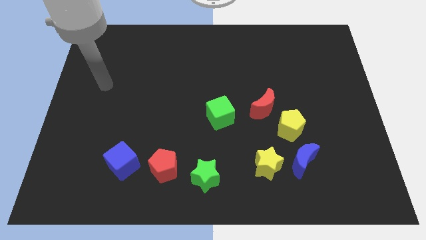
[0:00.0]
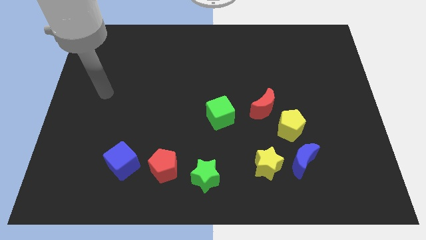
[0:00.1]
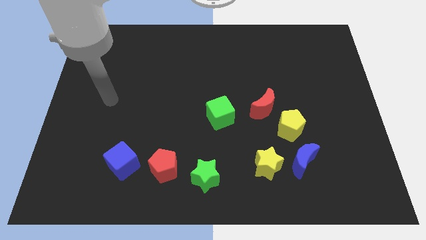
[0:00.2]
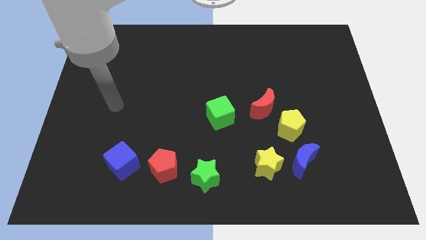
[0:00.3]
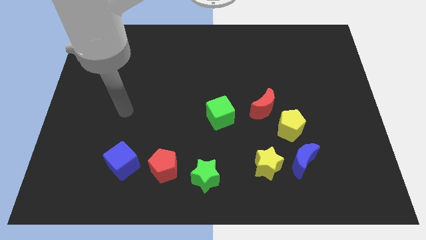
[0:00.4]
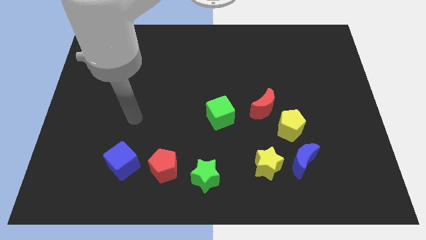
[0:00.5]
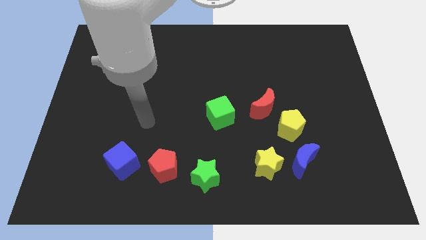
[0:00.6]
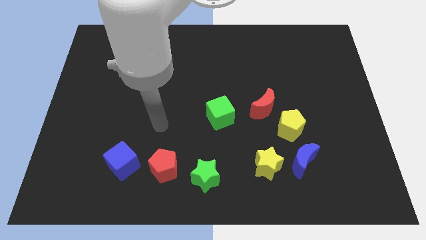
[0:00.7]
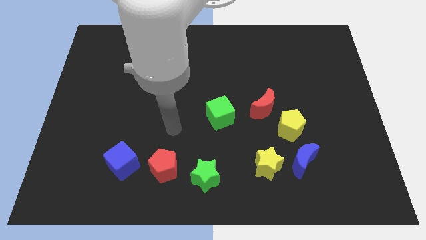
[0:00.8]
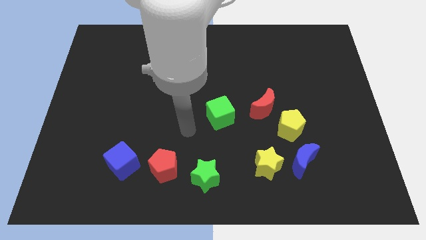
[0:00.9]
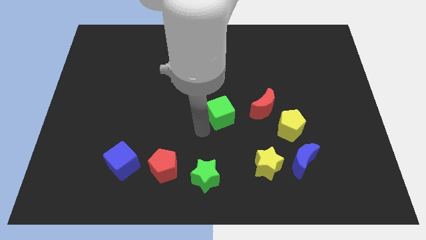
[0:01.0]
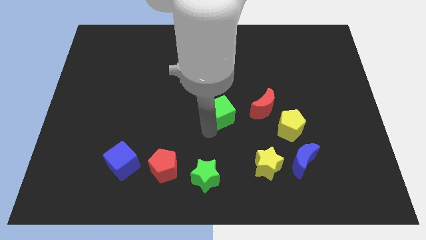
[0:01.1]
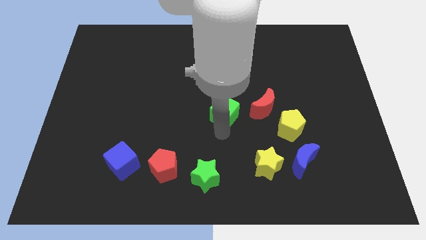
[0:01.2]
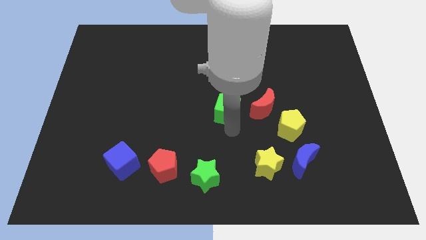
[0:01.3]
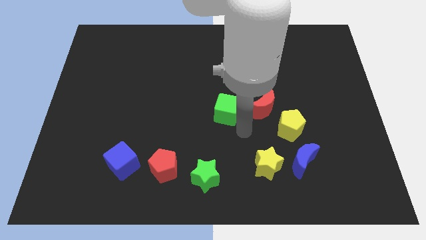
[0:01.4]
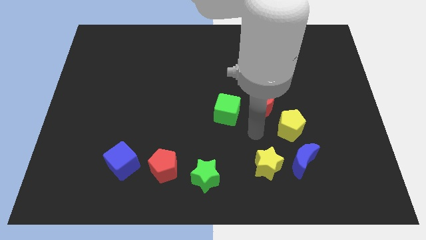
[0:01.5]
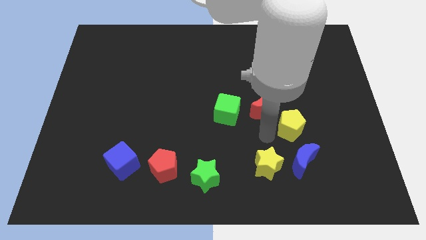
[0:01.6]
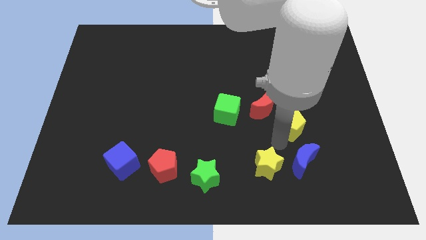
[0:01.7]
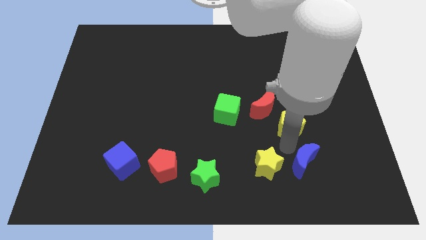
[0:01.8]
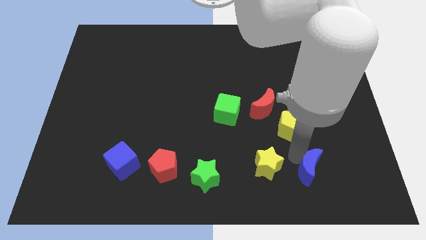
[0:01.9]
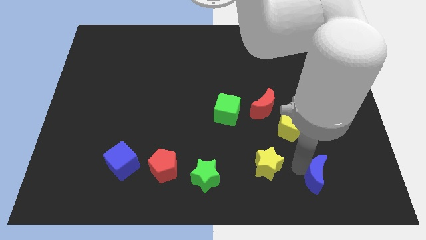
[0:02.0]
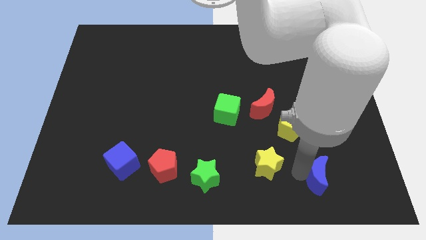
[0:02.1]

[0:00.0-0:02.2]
separate the yellow star from the blue moon

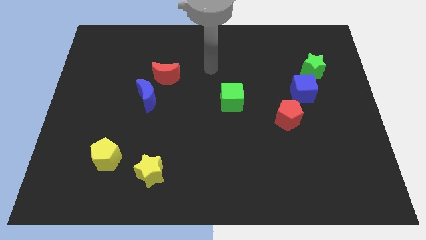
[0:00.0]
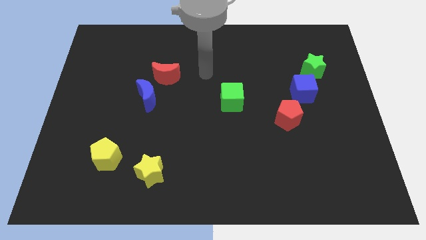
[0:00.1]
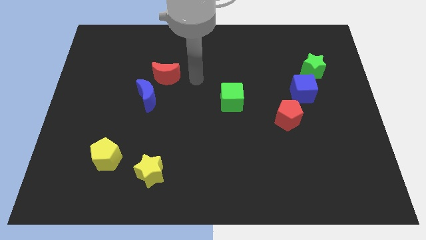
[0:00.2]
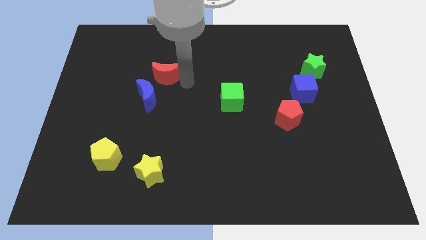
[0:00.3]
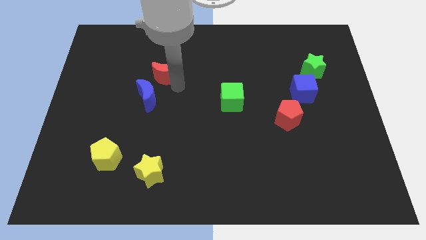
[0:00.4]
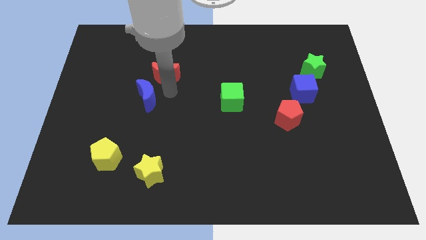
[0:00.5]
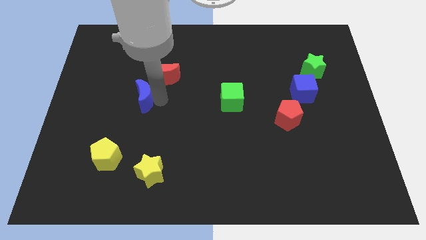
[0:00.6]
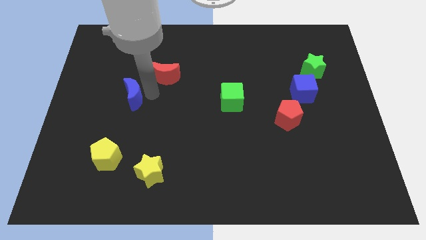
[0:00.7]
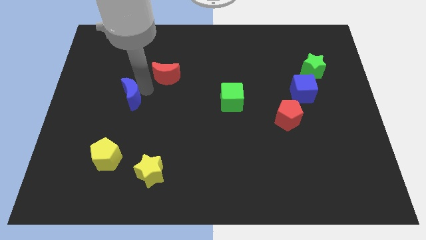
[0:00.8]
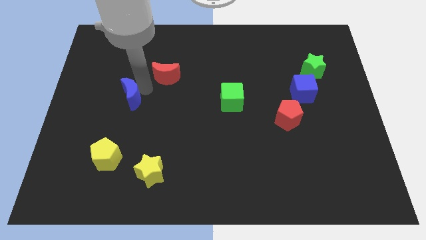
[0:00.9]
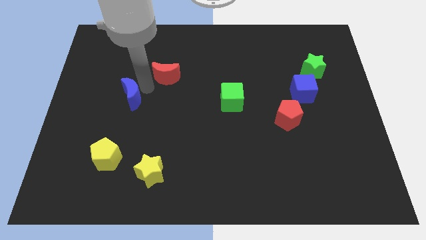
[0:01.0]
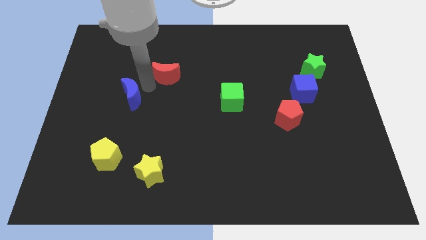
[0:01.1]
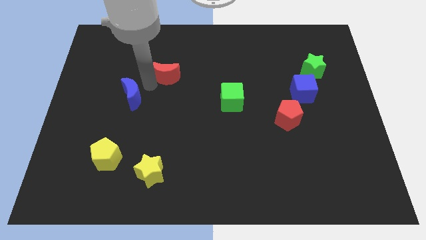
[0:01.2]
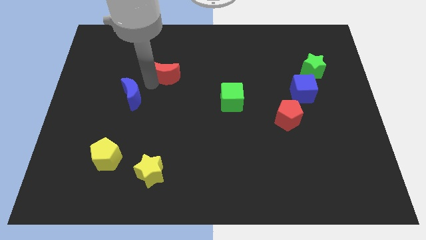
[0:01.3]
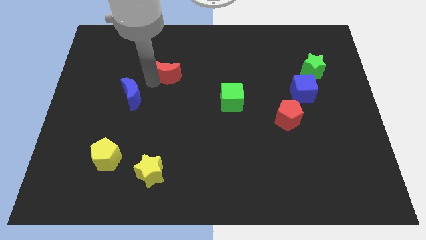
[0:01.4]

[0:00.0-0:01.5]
pull the red moon apart from the blue moon

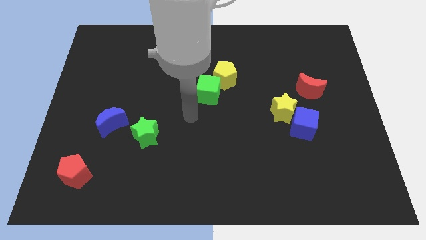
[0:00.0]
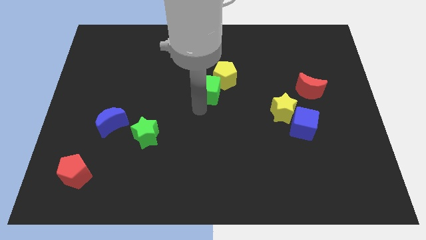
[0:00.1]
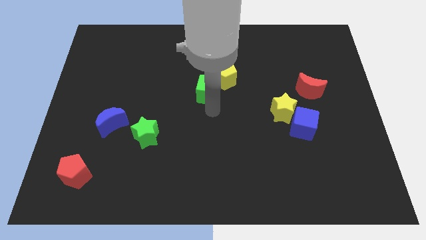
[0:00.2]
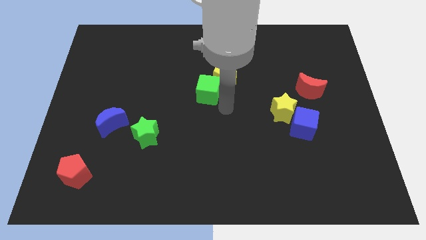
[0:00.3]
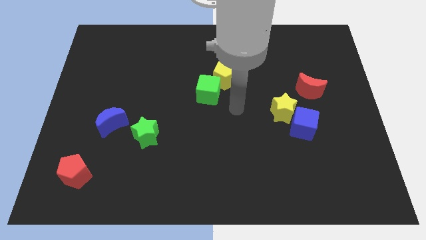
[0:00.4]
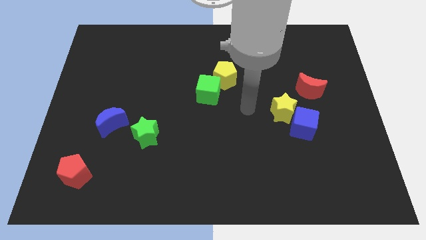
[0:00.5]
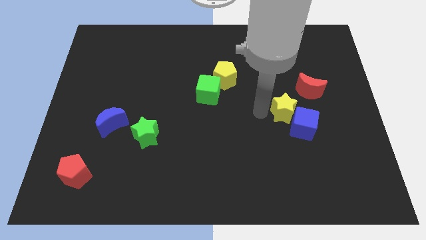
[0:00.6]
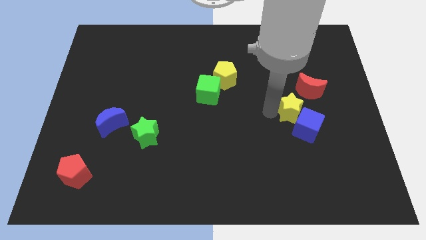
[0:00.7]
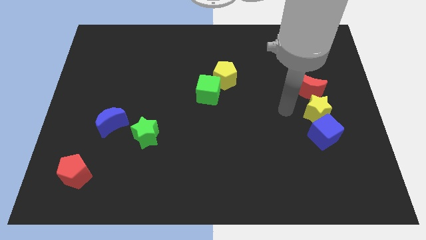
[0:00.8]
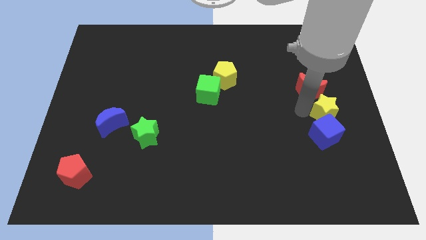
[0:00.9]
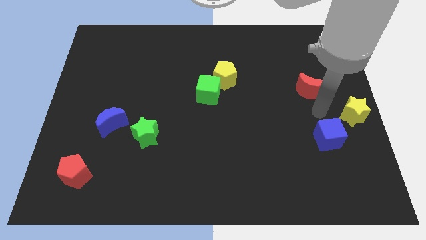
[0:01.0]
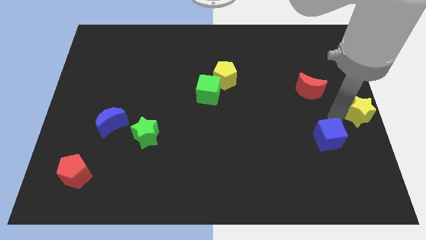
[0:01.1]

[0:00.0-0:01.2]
pull the blue cube apart from the yellow star

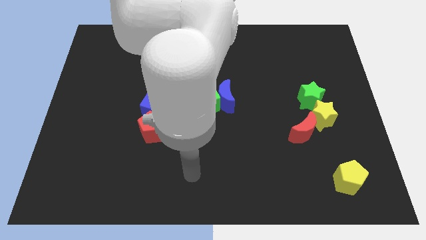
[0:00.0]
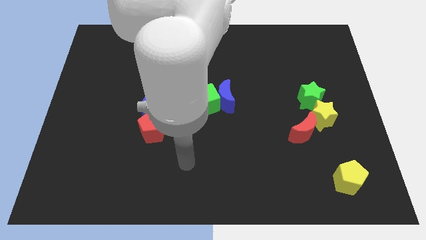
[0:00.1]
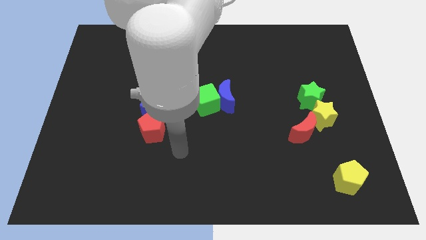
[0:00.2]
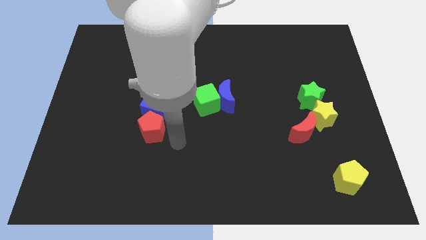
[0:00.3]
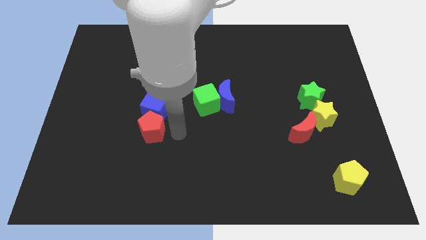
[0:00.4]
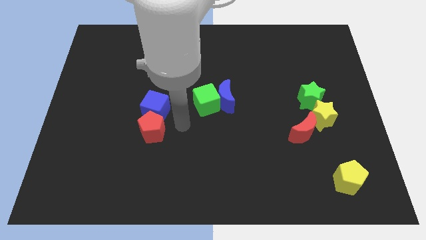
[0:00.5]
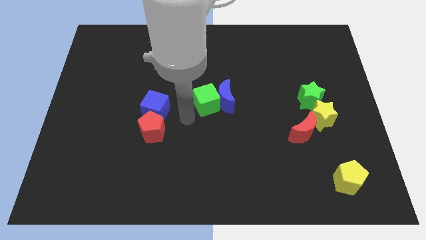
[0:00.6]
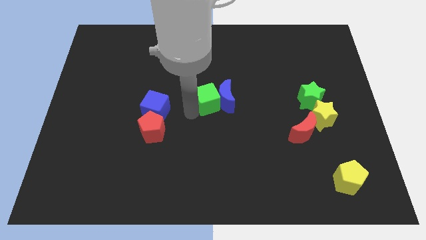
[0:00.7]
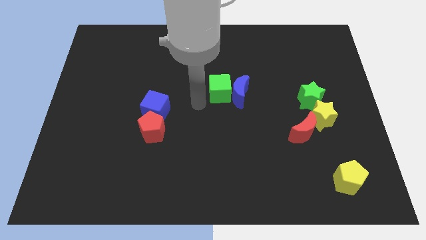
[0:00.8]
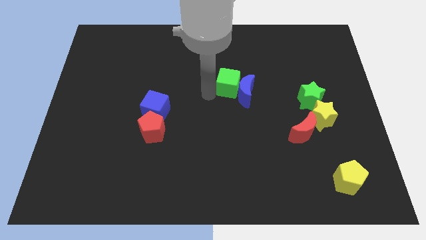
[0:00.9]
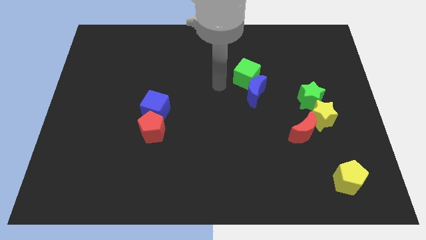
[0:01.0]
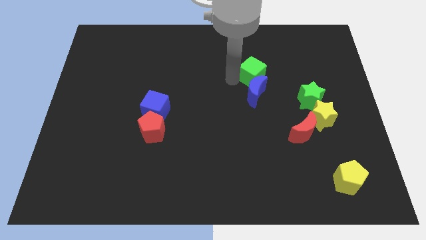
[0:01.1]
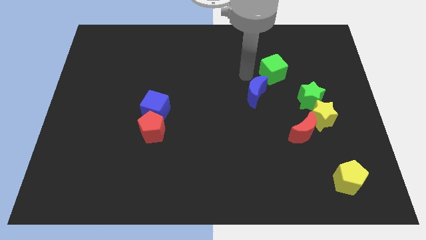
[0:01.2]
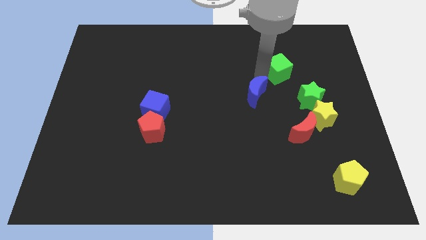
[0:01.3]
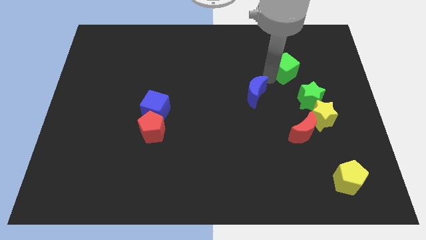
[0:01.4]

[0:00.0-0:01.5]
separate the blue moon from the green cube

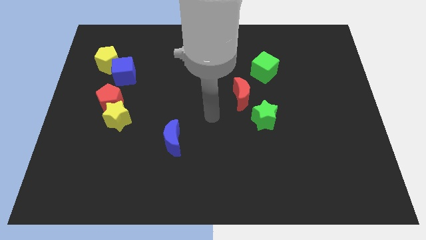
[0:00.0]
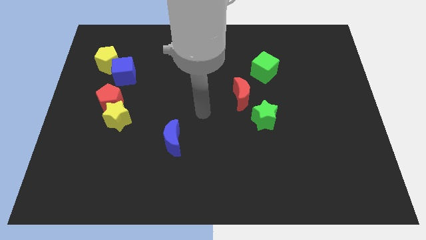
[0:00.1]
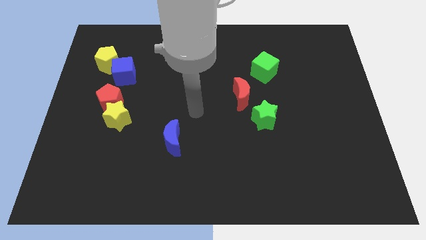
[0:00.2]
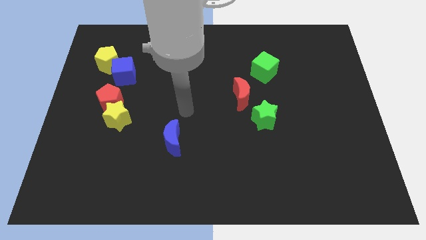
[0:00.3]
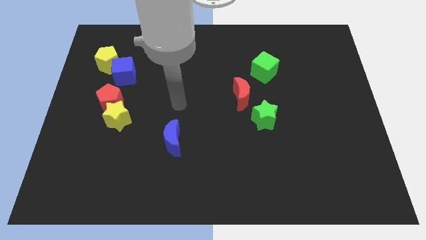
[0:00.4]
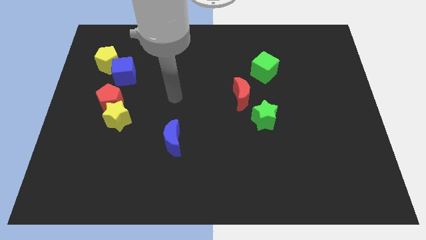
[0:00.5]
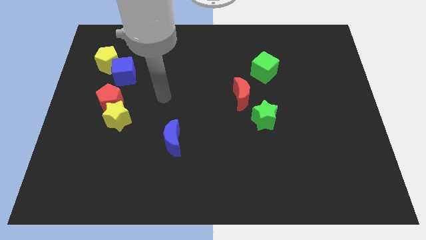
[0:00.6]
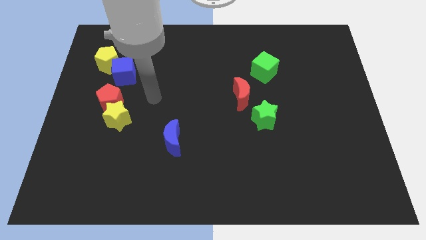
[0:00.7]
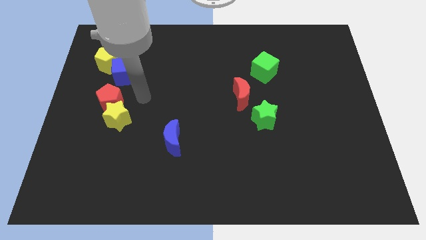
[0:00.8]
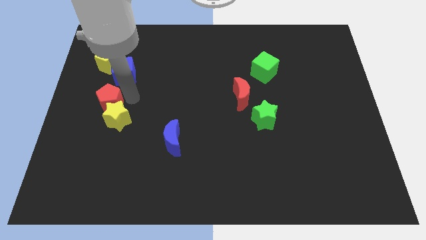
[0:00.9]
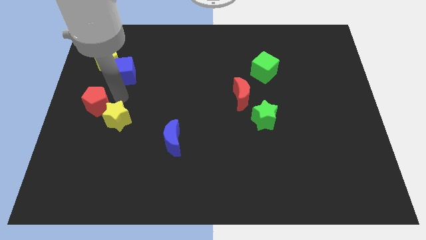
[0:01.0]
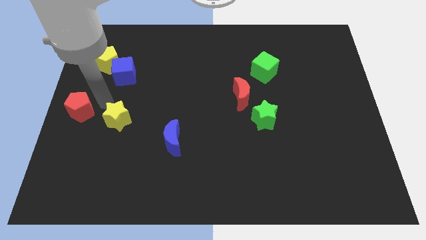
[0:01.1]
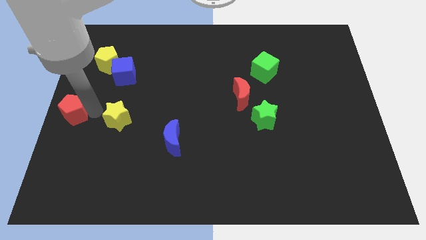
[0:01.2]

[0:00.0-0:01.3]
move the yellow star away from the red pentagon

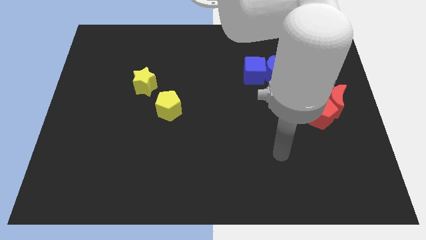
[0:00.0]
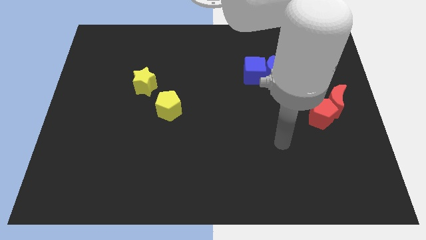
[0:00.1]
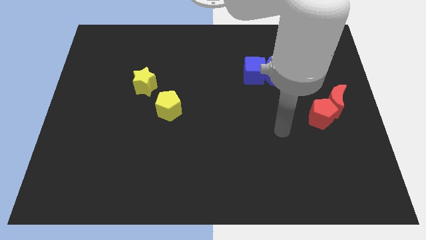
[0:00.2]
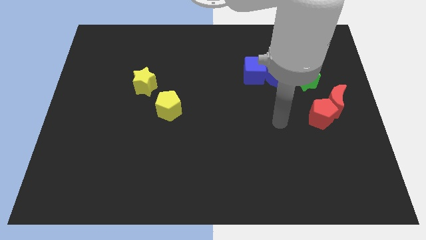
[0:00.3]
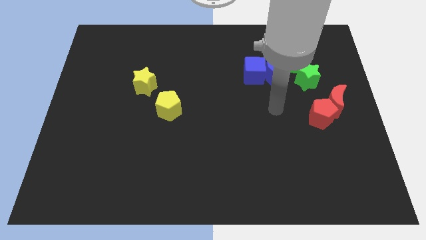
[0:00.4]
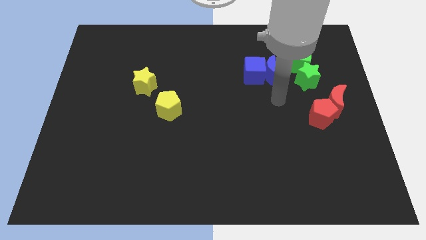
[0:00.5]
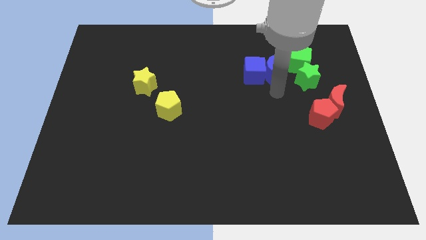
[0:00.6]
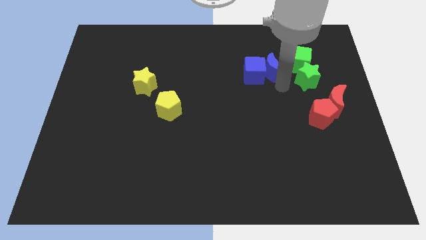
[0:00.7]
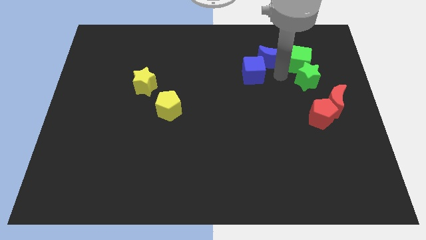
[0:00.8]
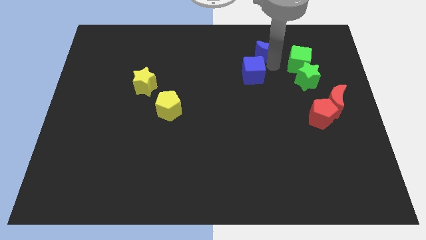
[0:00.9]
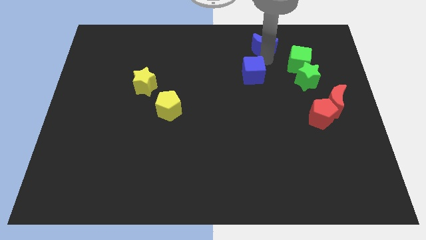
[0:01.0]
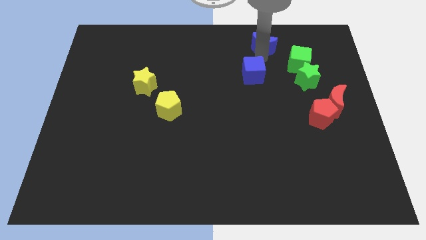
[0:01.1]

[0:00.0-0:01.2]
move the blue cube away from the blue moon

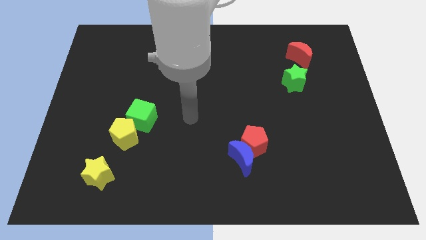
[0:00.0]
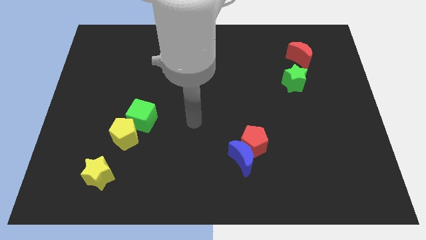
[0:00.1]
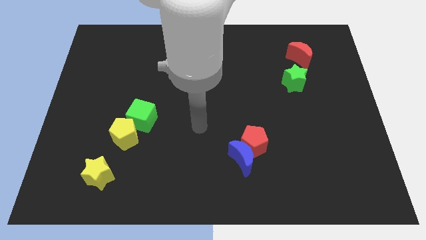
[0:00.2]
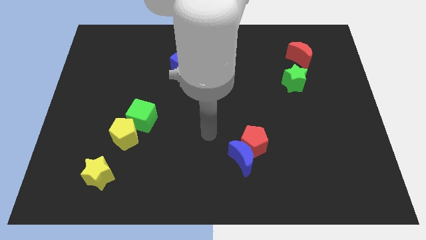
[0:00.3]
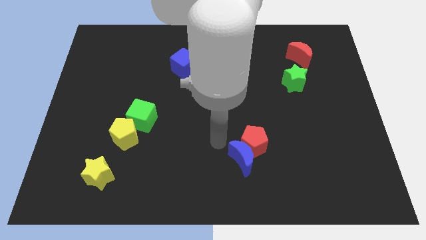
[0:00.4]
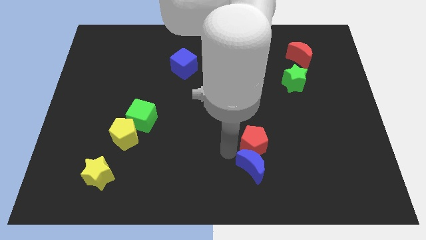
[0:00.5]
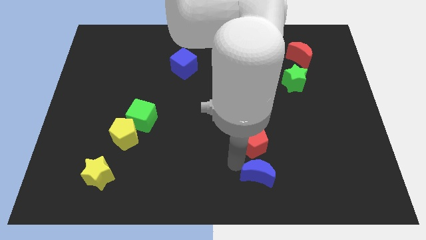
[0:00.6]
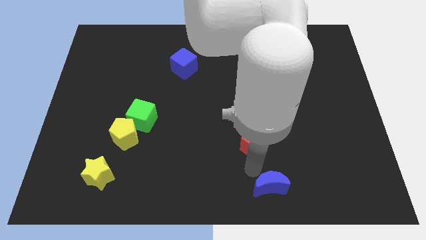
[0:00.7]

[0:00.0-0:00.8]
separate the red pentagon from the blue moon
